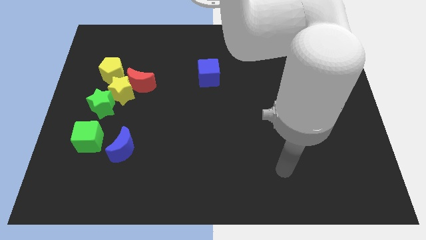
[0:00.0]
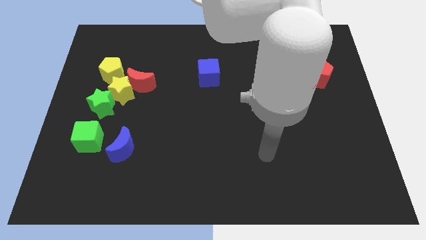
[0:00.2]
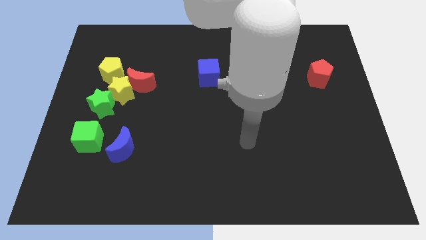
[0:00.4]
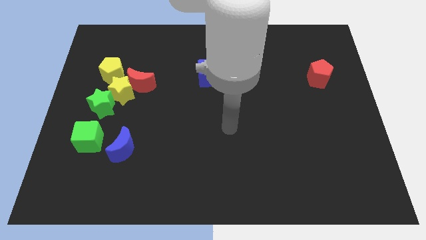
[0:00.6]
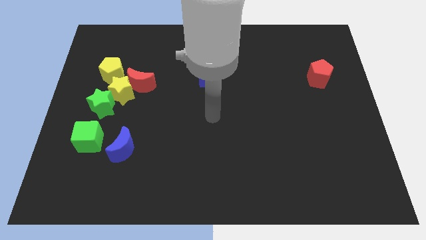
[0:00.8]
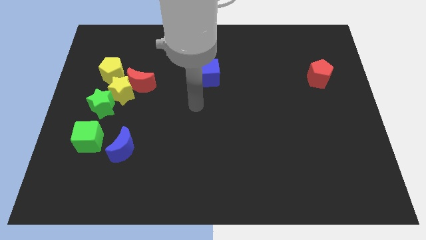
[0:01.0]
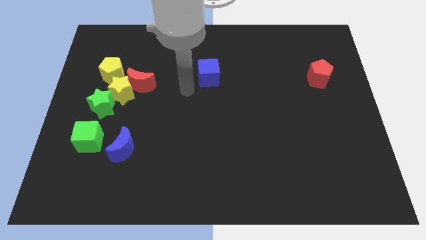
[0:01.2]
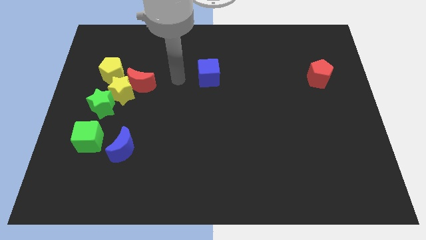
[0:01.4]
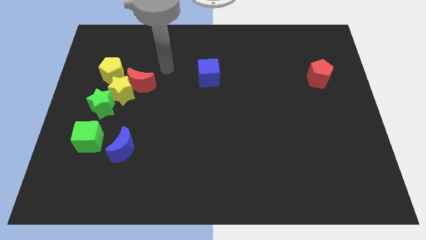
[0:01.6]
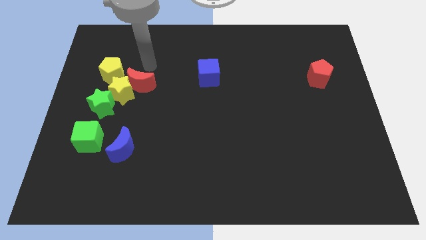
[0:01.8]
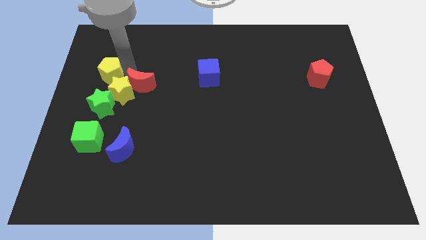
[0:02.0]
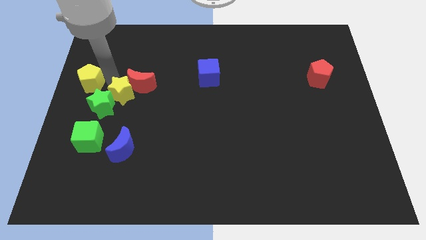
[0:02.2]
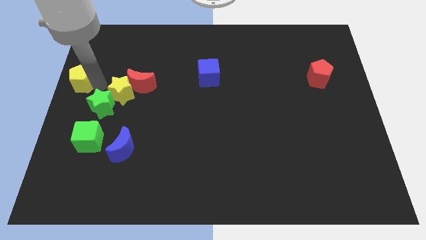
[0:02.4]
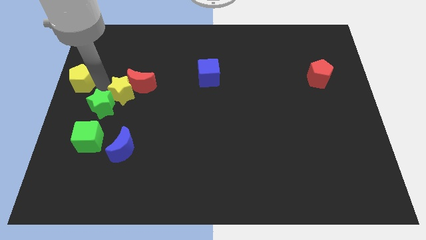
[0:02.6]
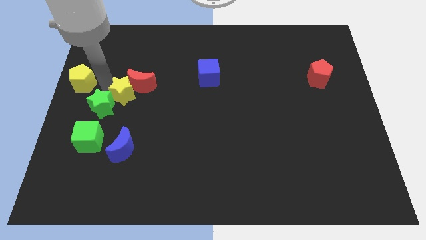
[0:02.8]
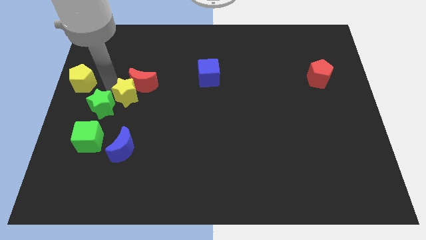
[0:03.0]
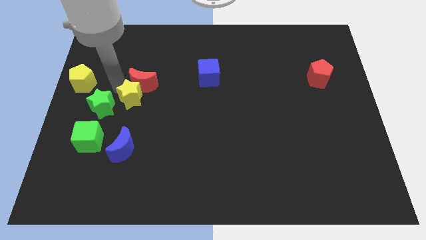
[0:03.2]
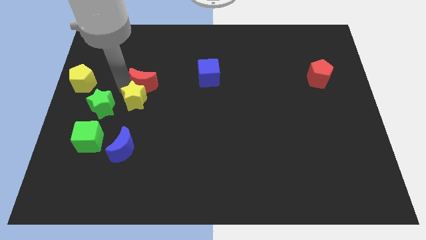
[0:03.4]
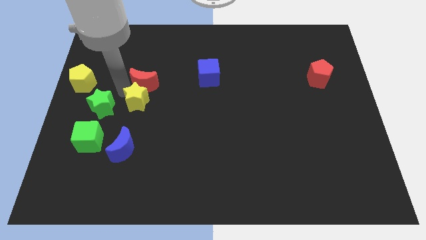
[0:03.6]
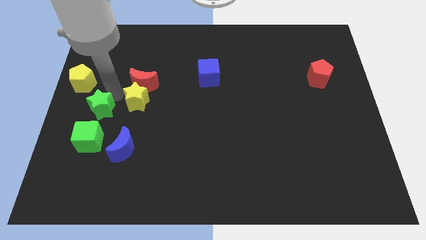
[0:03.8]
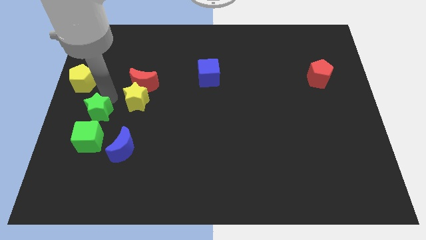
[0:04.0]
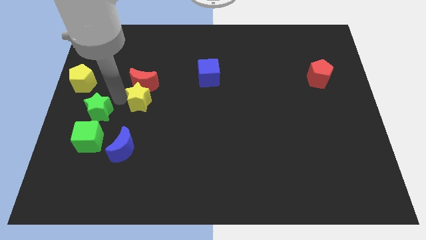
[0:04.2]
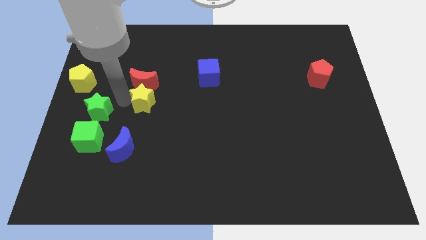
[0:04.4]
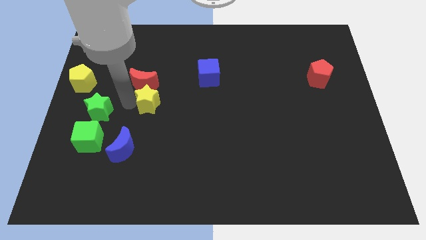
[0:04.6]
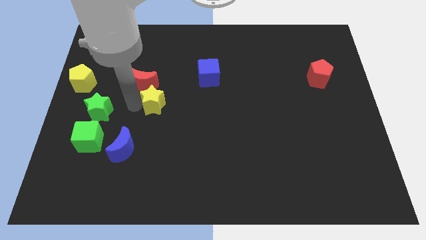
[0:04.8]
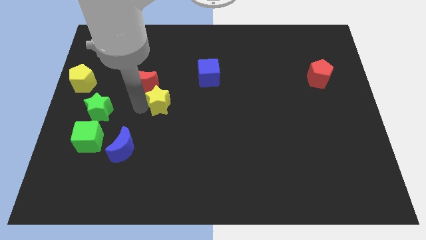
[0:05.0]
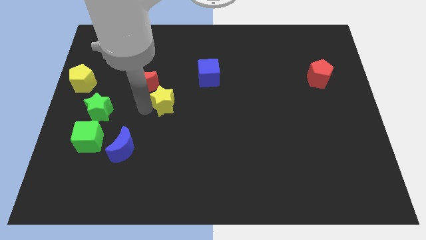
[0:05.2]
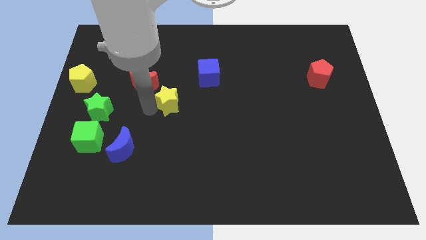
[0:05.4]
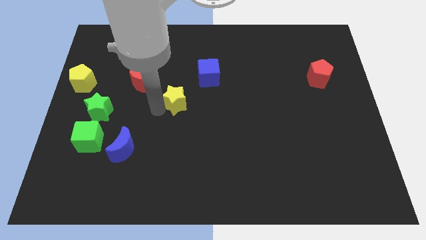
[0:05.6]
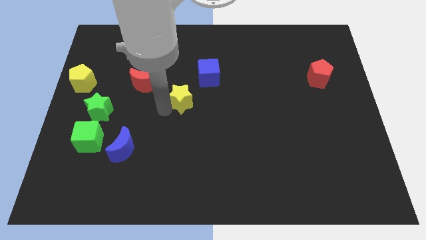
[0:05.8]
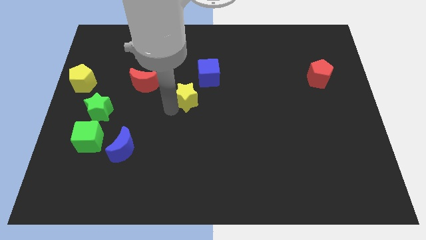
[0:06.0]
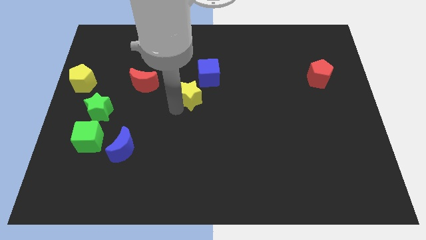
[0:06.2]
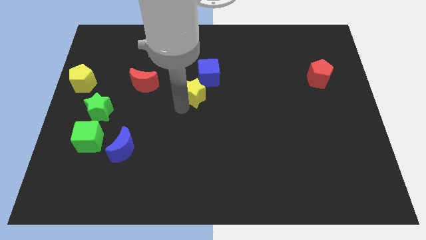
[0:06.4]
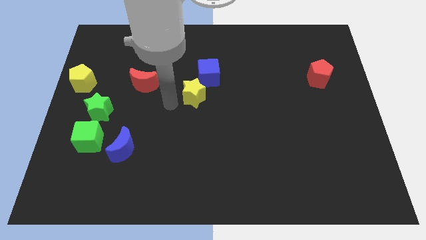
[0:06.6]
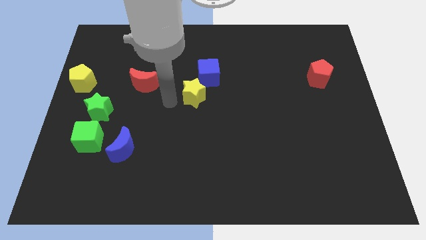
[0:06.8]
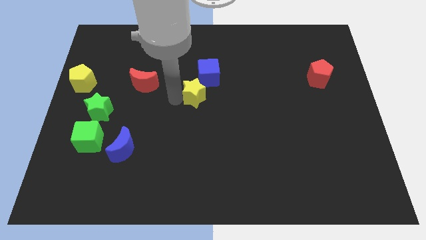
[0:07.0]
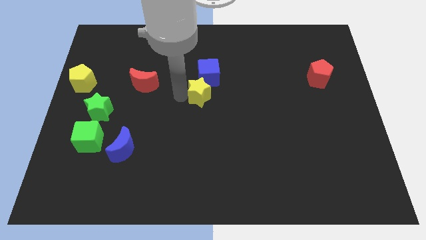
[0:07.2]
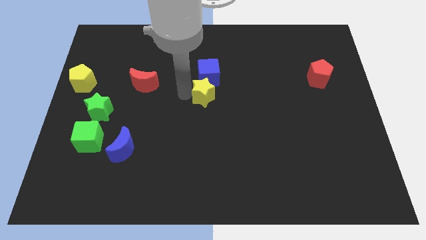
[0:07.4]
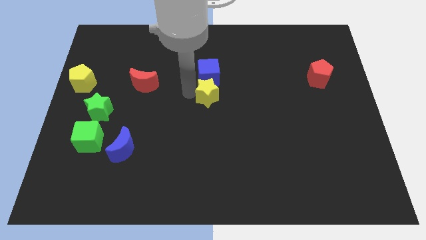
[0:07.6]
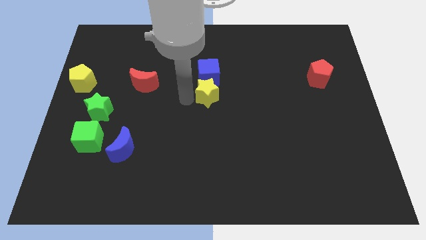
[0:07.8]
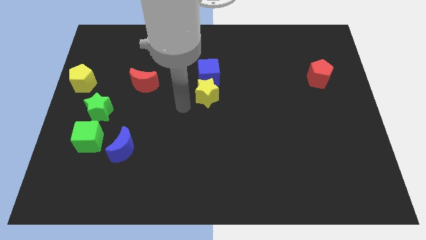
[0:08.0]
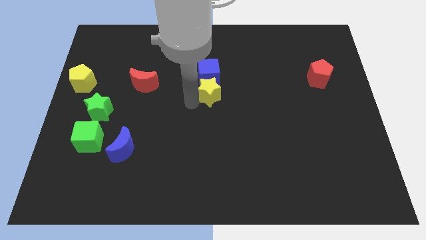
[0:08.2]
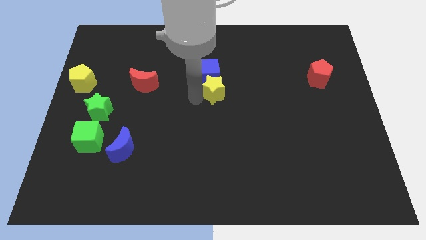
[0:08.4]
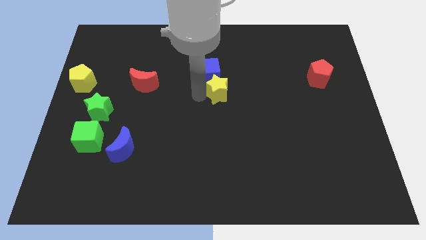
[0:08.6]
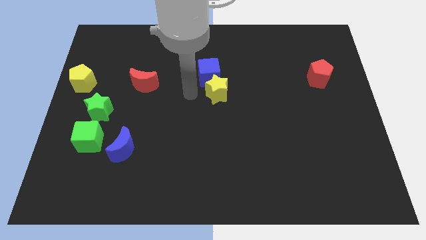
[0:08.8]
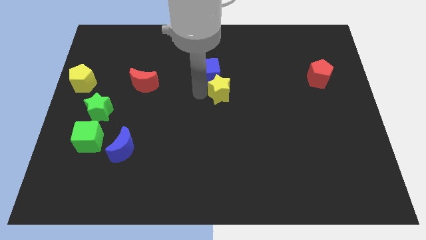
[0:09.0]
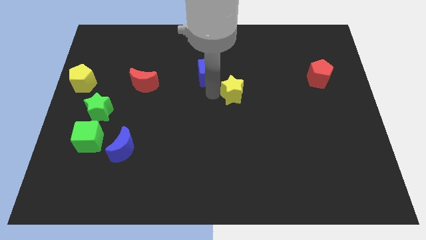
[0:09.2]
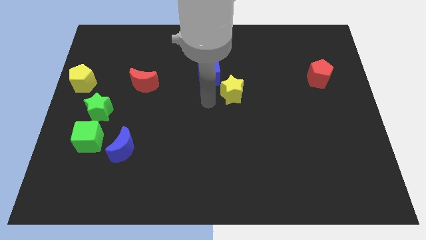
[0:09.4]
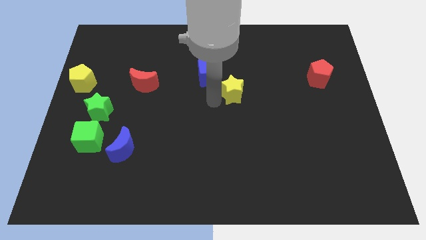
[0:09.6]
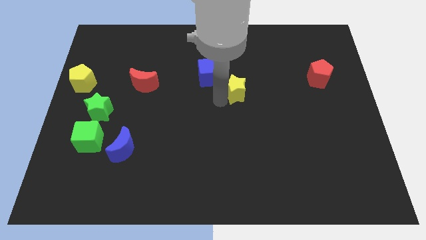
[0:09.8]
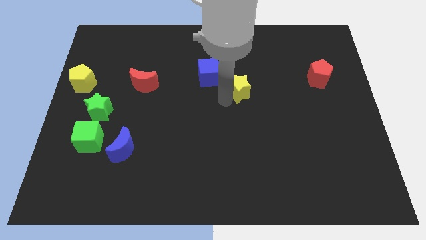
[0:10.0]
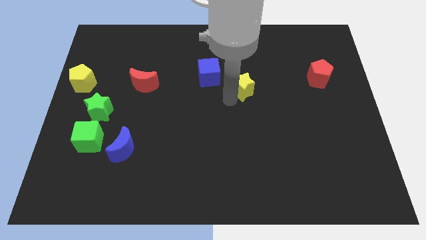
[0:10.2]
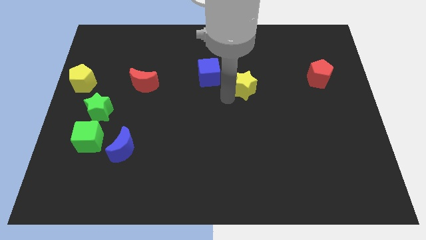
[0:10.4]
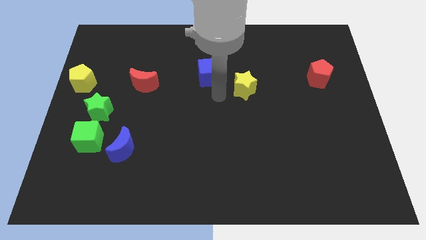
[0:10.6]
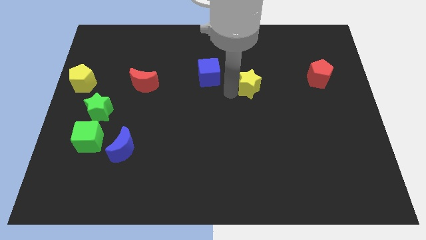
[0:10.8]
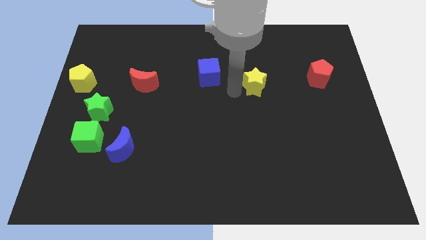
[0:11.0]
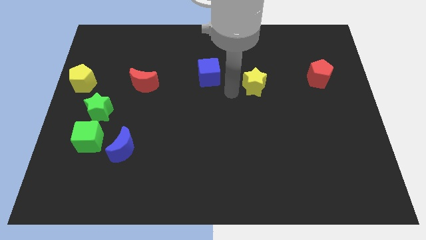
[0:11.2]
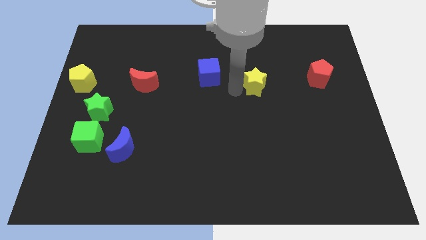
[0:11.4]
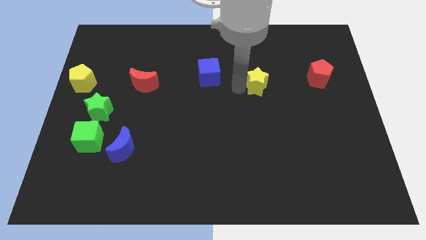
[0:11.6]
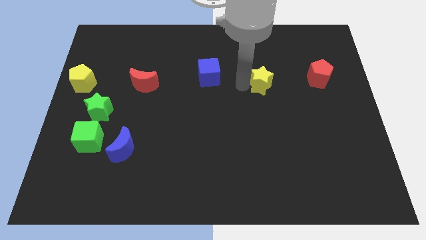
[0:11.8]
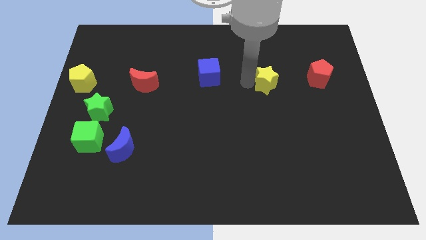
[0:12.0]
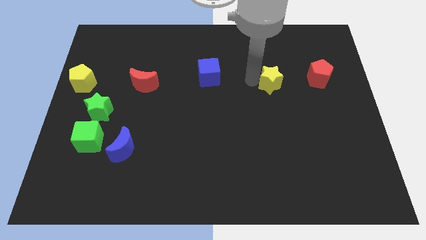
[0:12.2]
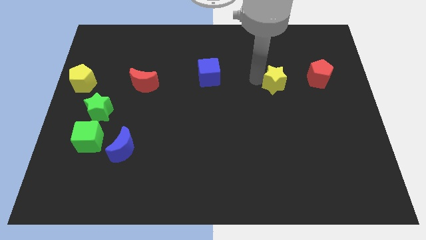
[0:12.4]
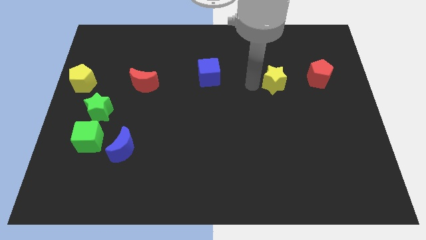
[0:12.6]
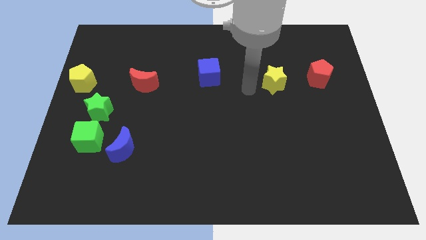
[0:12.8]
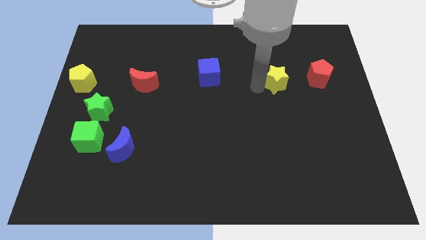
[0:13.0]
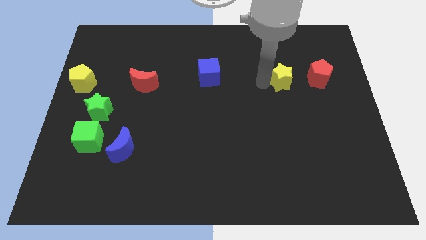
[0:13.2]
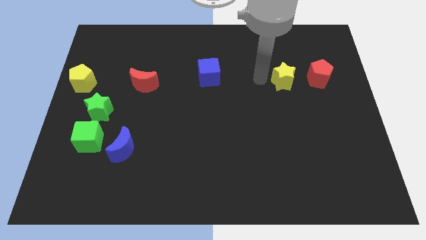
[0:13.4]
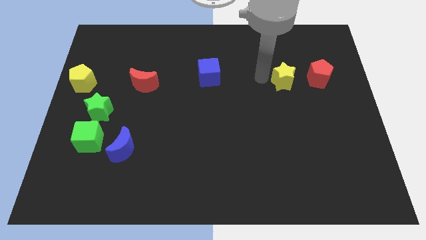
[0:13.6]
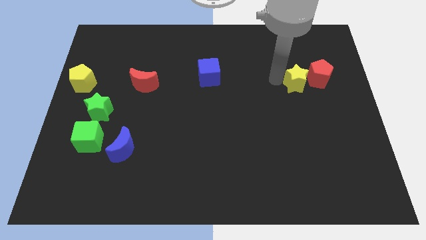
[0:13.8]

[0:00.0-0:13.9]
put the yellow star towards the red pentagon
